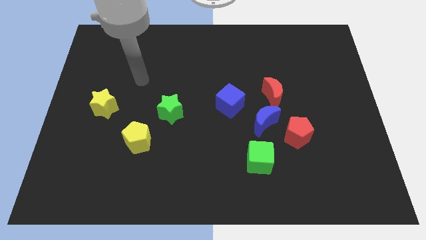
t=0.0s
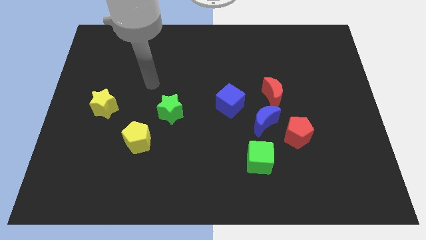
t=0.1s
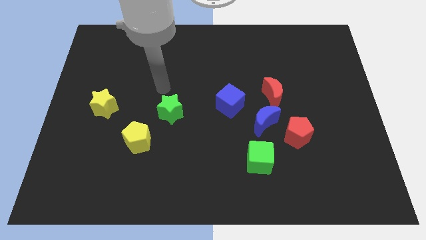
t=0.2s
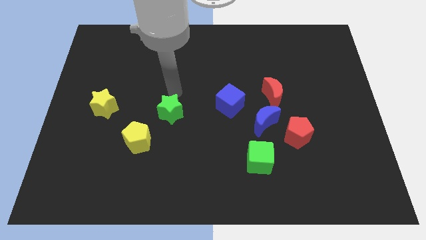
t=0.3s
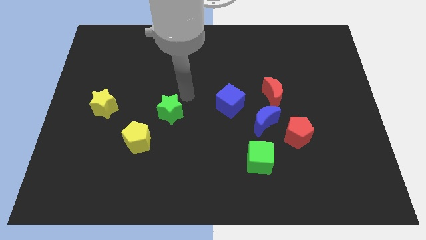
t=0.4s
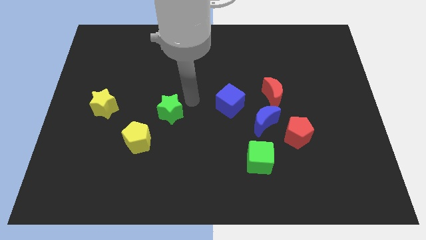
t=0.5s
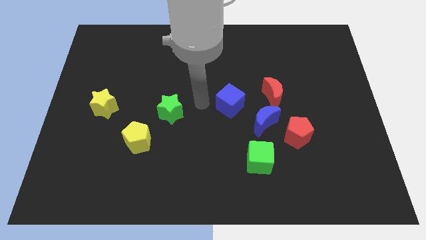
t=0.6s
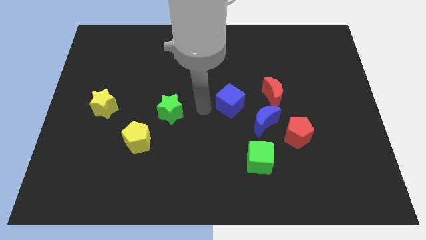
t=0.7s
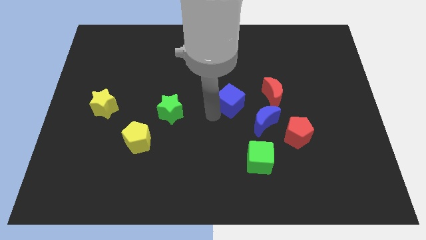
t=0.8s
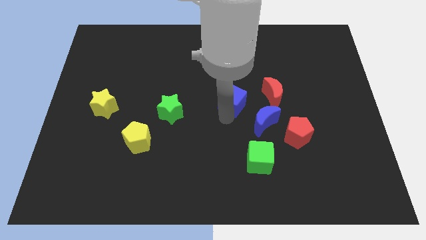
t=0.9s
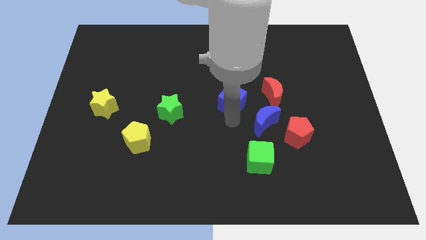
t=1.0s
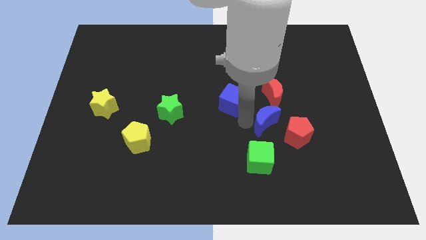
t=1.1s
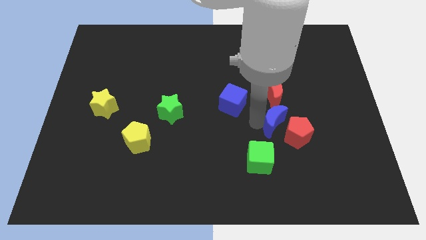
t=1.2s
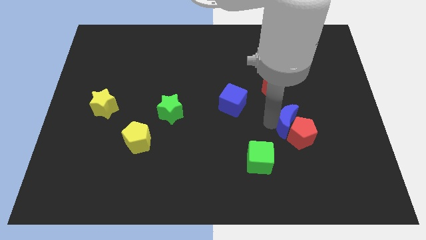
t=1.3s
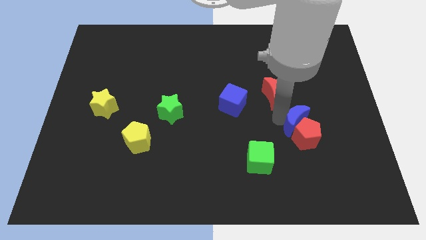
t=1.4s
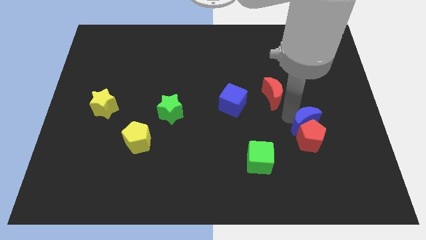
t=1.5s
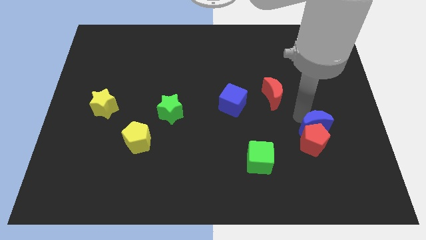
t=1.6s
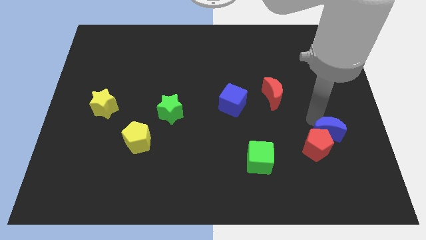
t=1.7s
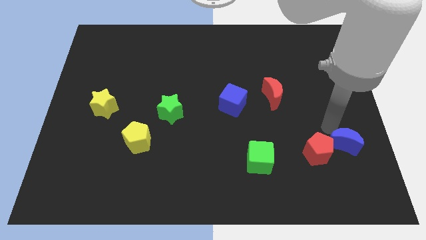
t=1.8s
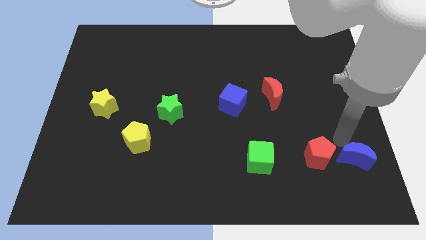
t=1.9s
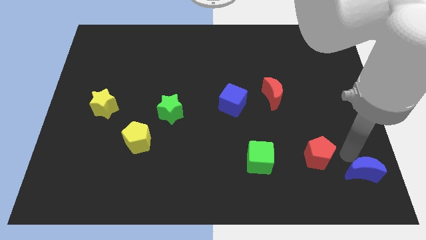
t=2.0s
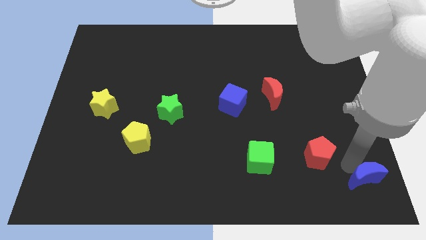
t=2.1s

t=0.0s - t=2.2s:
pull the red pentagon apart from the blue moon

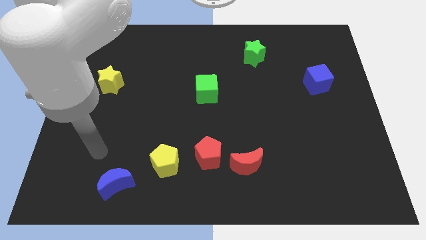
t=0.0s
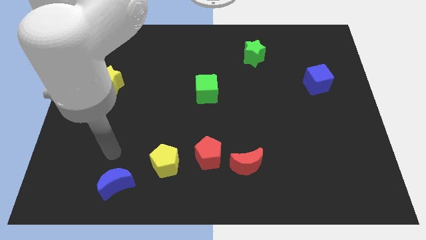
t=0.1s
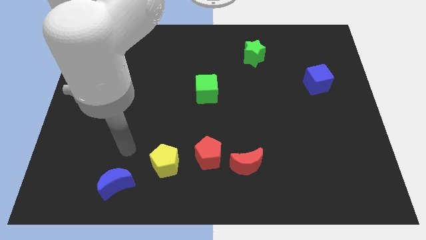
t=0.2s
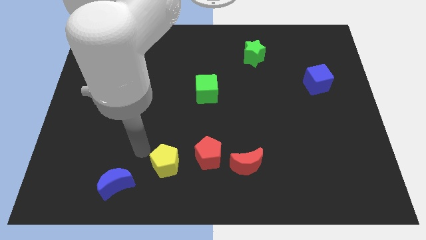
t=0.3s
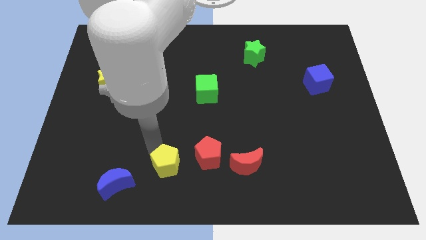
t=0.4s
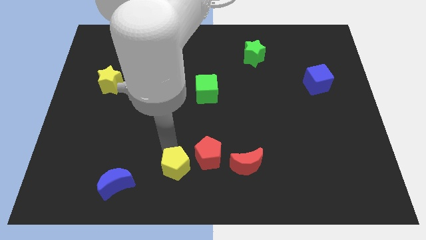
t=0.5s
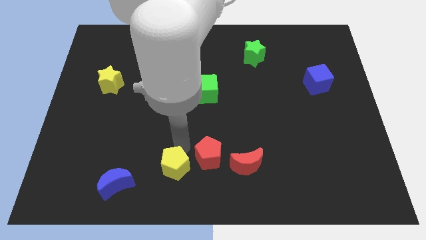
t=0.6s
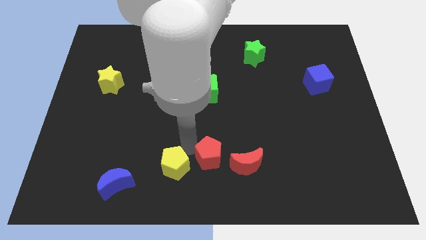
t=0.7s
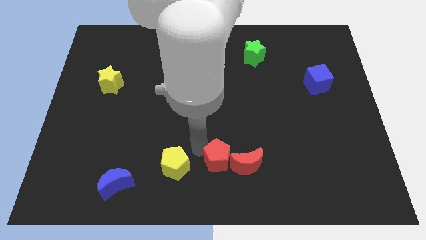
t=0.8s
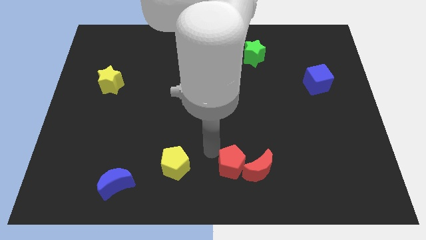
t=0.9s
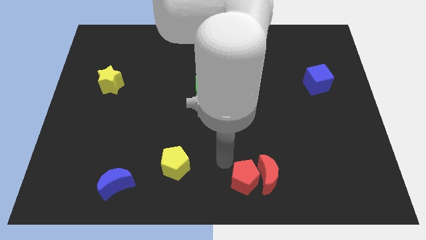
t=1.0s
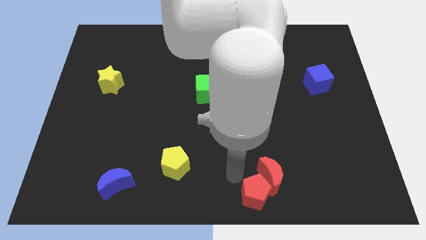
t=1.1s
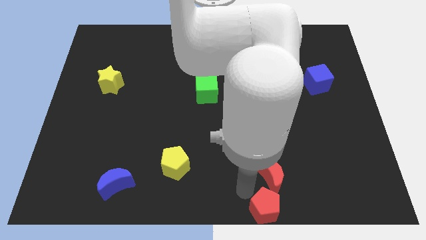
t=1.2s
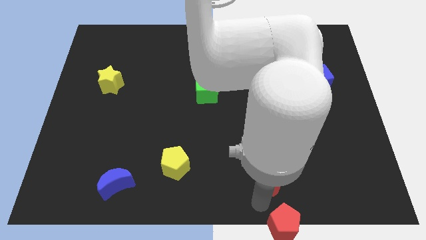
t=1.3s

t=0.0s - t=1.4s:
separate the red moon from the red pentagon

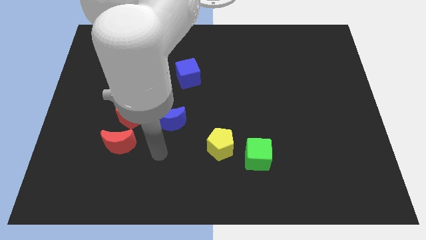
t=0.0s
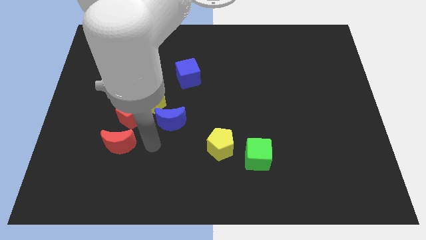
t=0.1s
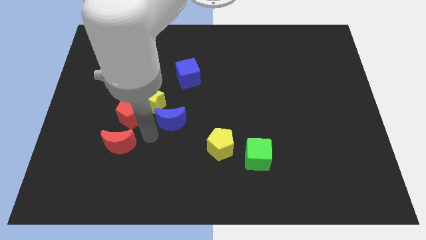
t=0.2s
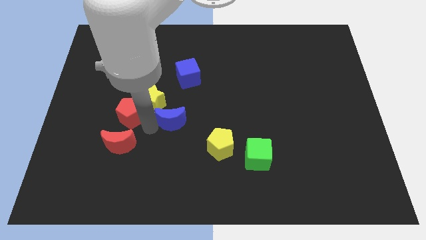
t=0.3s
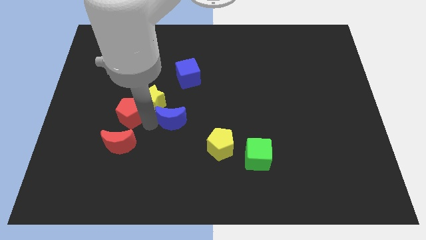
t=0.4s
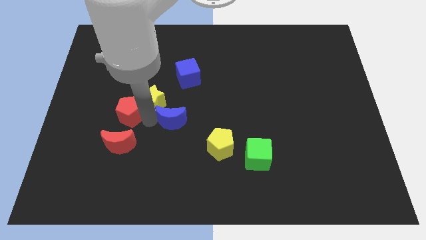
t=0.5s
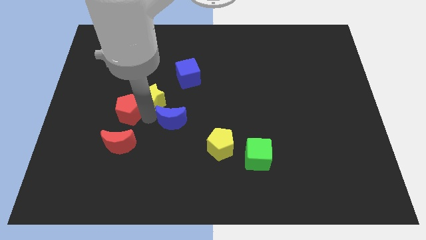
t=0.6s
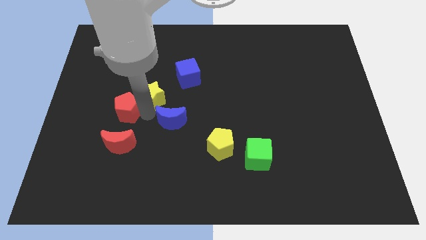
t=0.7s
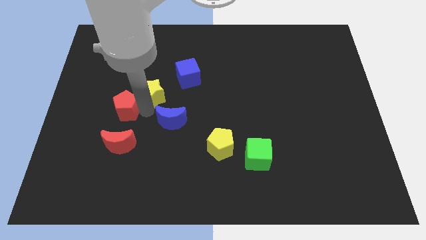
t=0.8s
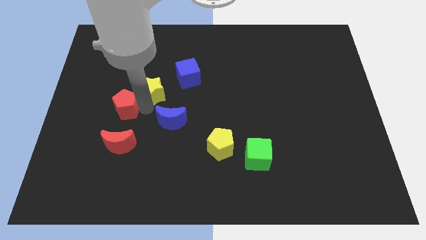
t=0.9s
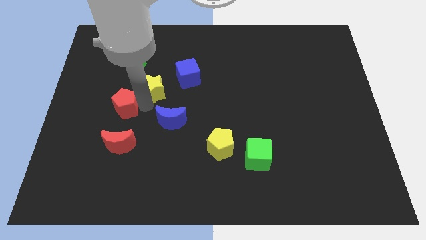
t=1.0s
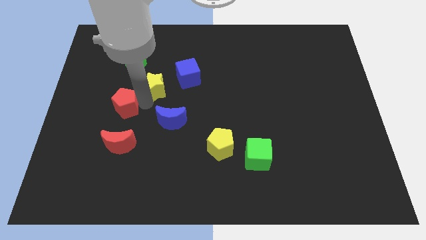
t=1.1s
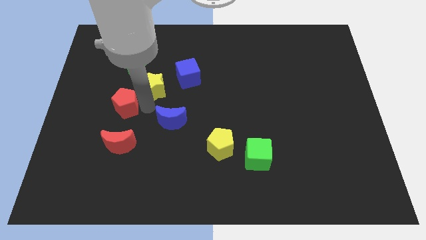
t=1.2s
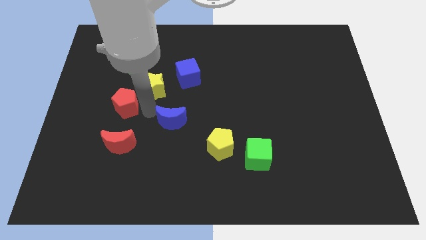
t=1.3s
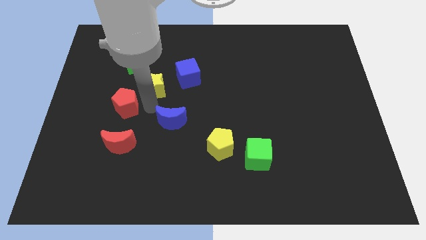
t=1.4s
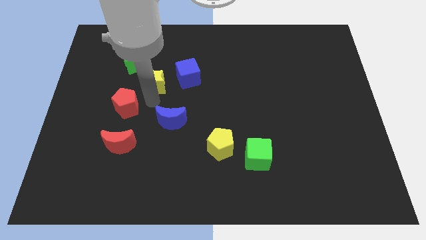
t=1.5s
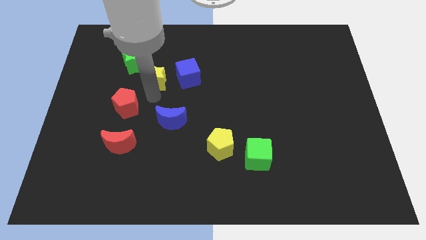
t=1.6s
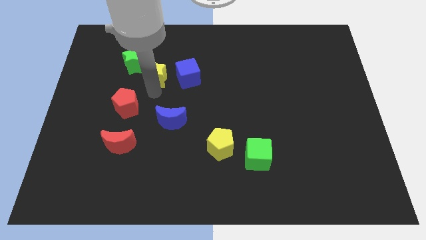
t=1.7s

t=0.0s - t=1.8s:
separate the yellow star from the red pentagon and blue moon

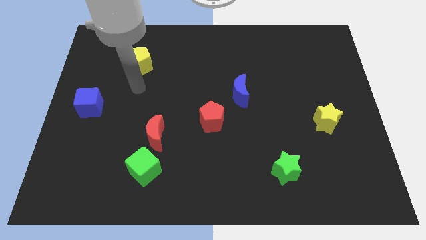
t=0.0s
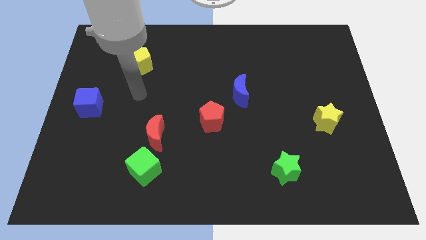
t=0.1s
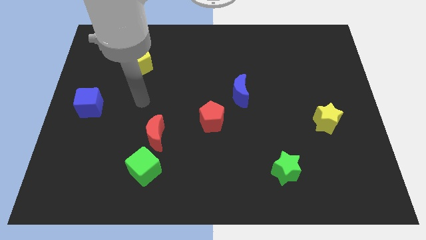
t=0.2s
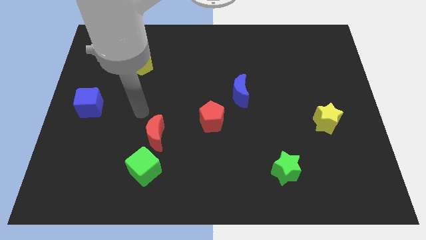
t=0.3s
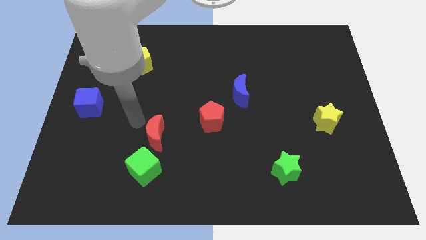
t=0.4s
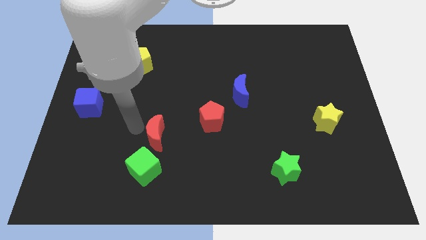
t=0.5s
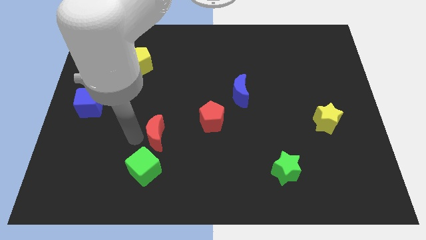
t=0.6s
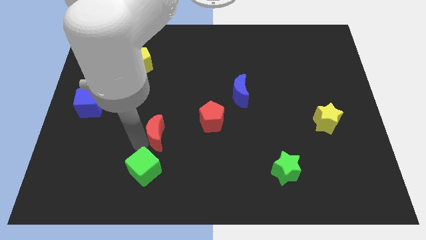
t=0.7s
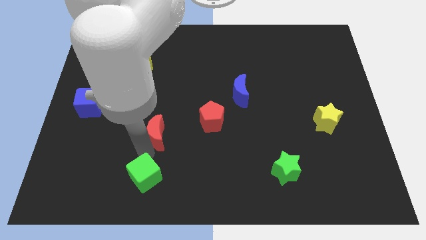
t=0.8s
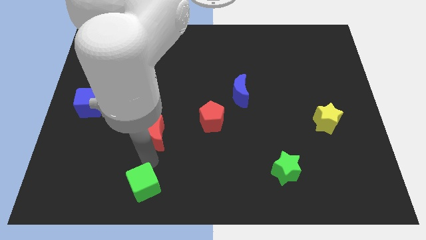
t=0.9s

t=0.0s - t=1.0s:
separate the red moon from the green cube

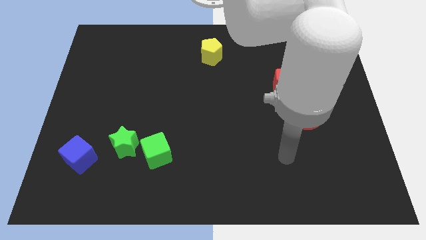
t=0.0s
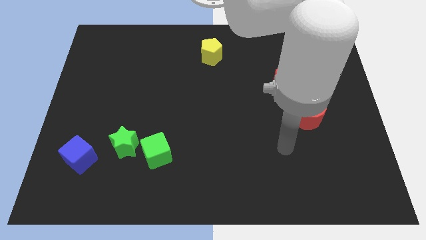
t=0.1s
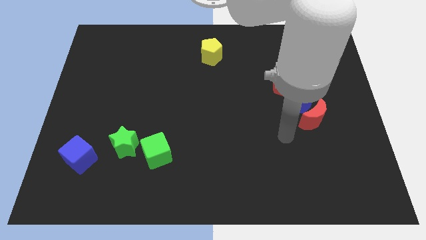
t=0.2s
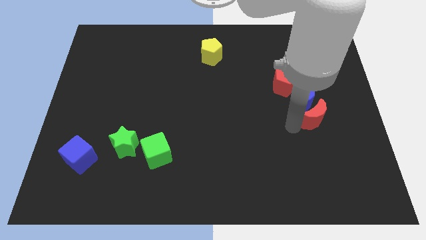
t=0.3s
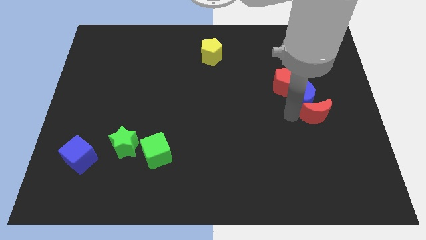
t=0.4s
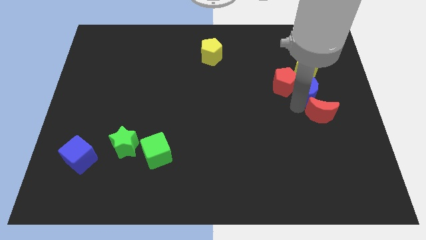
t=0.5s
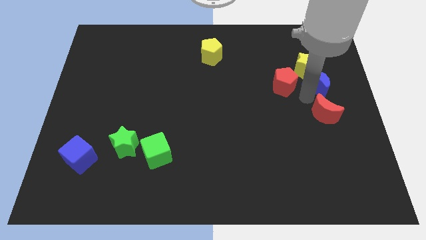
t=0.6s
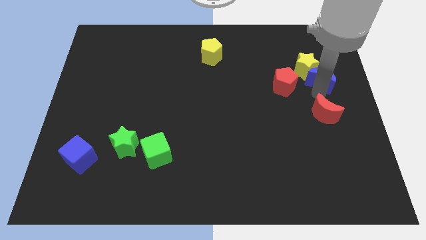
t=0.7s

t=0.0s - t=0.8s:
separate the red moon from the blue moon

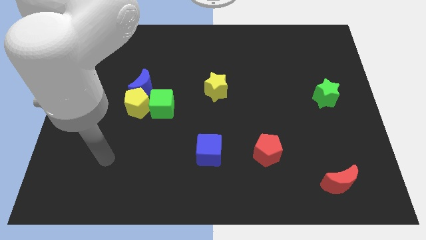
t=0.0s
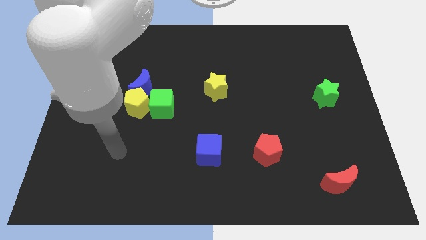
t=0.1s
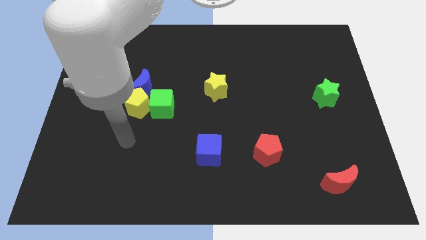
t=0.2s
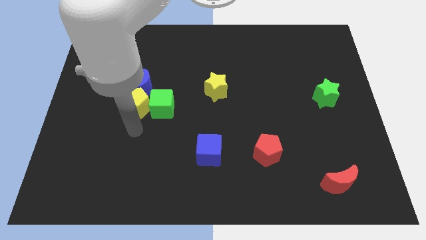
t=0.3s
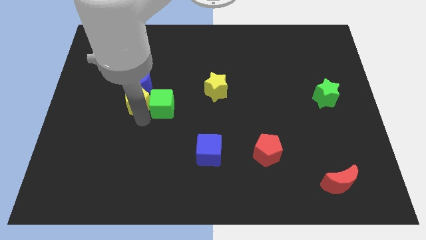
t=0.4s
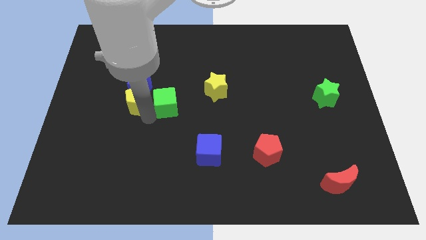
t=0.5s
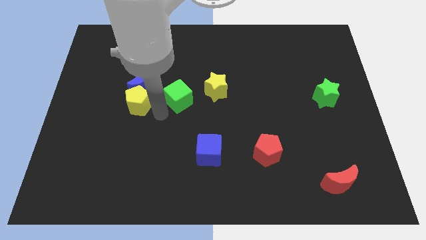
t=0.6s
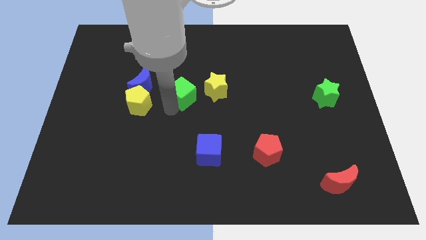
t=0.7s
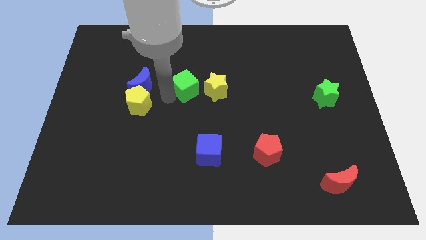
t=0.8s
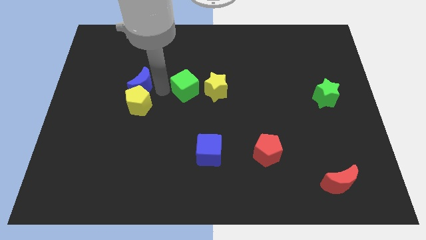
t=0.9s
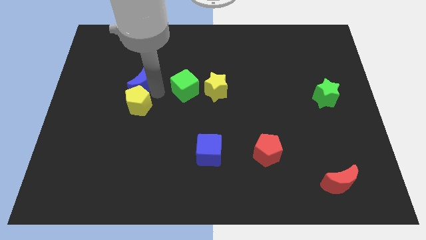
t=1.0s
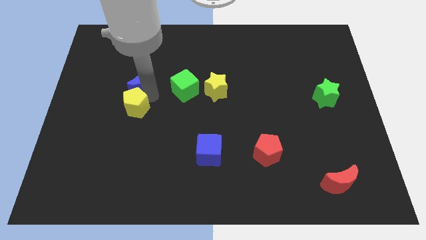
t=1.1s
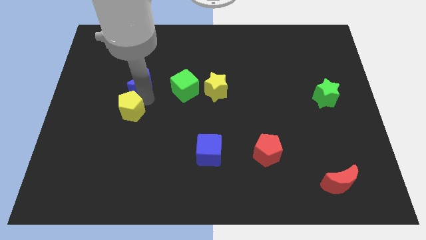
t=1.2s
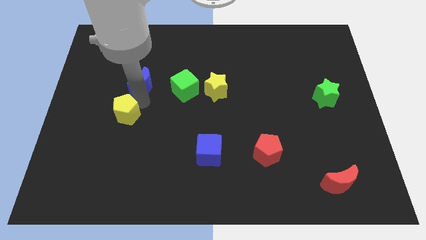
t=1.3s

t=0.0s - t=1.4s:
pull the yellow pentagon apart from the blue moon and green cube

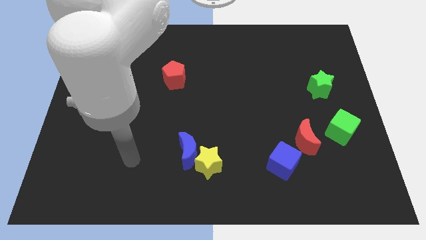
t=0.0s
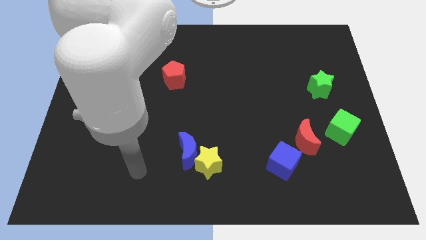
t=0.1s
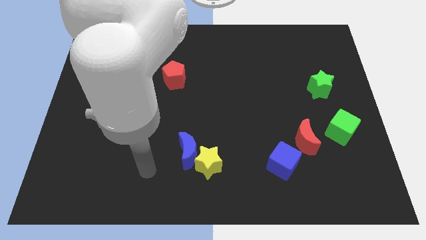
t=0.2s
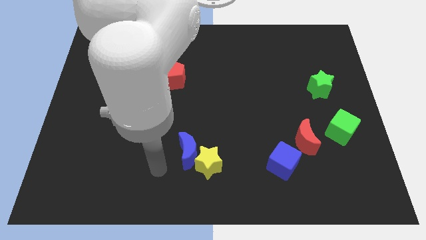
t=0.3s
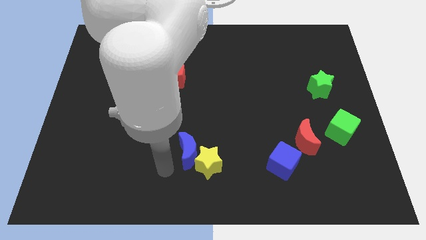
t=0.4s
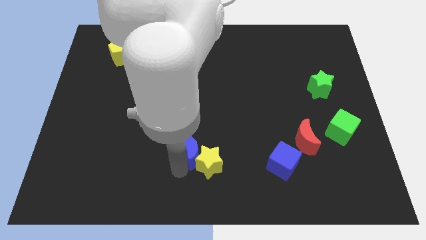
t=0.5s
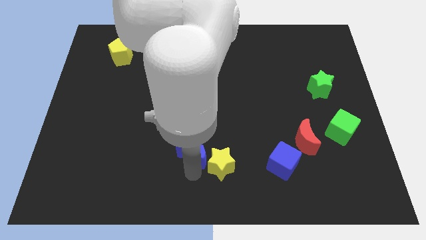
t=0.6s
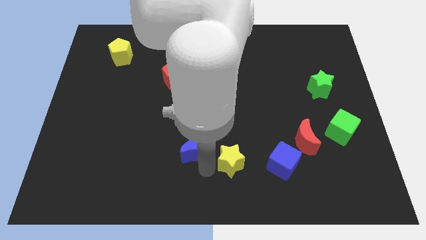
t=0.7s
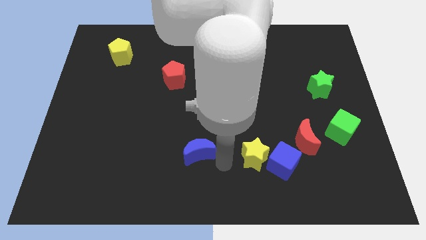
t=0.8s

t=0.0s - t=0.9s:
move the blue moon away from the yellow star
